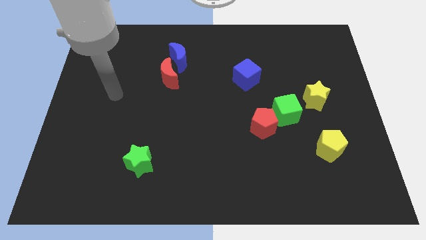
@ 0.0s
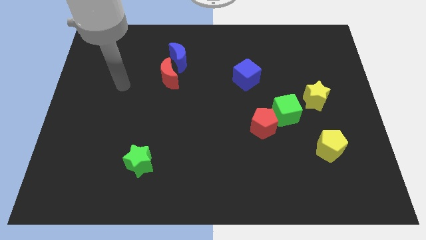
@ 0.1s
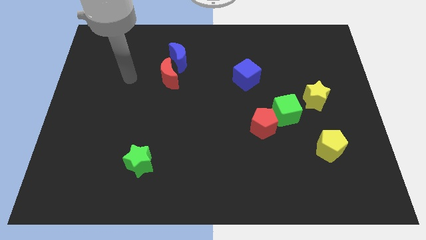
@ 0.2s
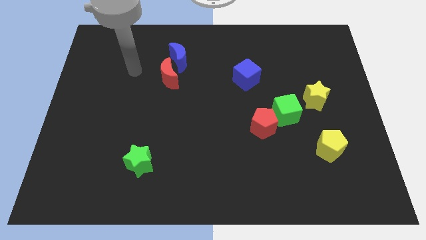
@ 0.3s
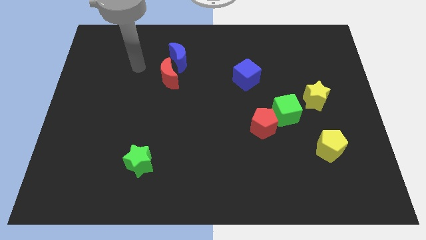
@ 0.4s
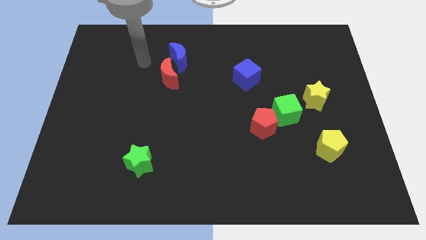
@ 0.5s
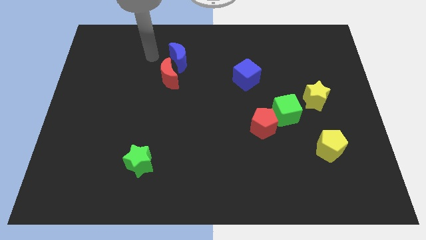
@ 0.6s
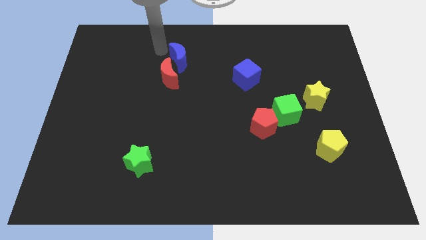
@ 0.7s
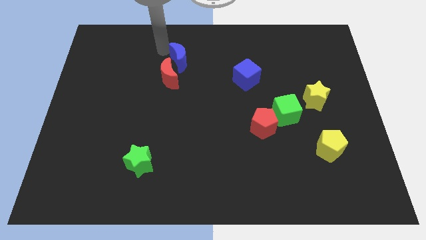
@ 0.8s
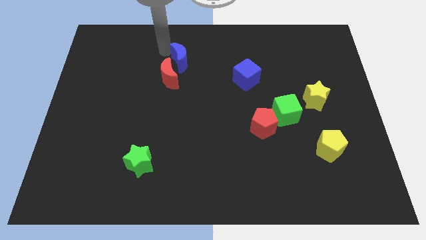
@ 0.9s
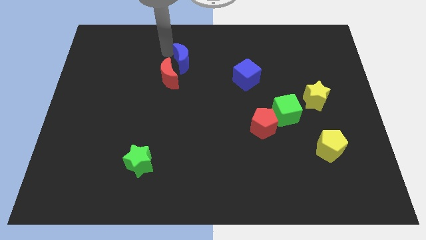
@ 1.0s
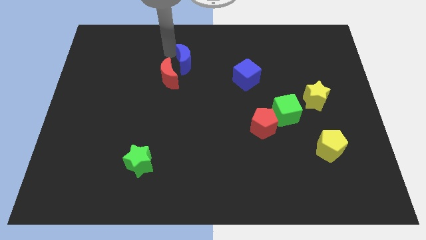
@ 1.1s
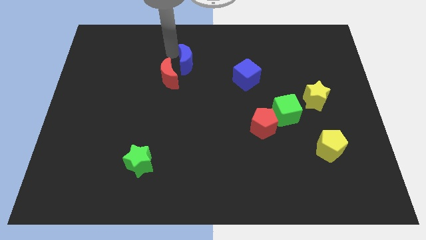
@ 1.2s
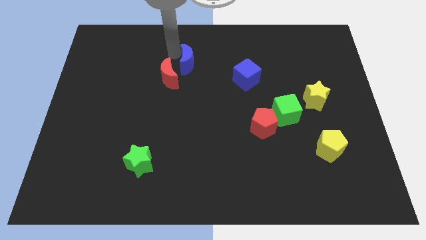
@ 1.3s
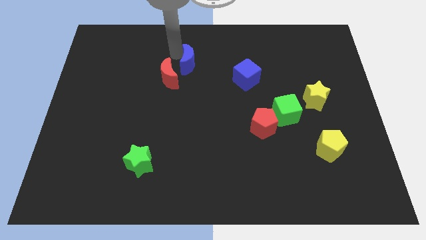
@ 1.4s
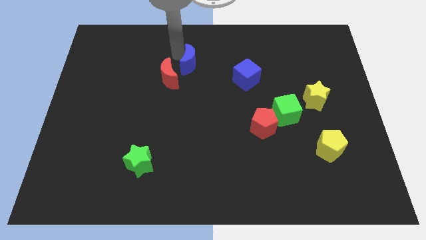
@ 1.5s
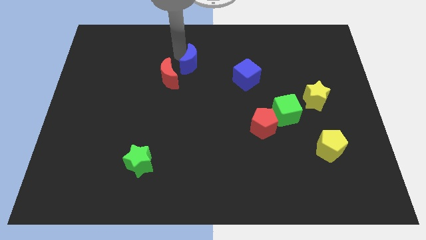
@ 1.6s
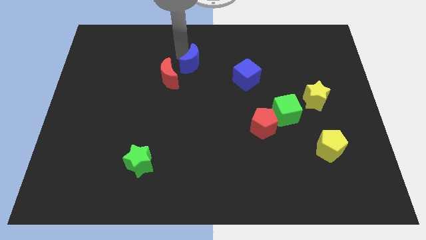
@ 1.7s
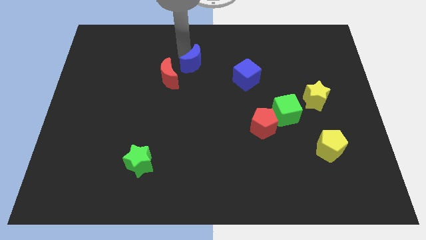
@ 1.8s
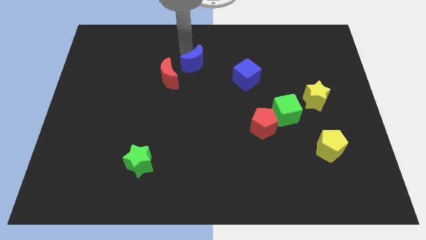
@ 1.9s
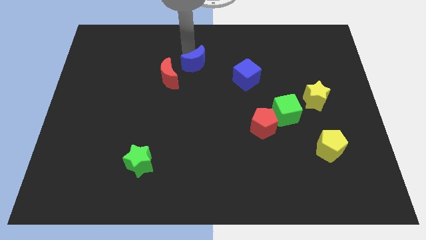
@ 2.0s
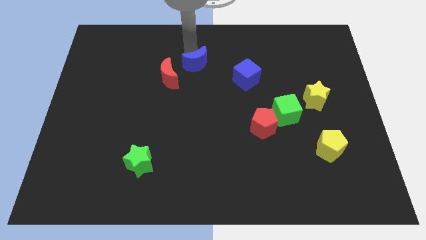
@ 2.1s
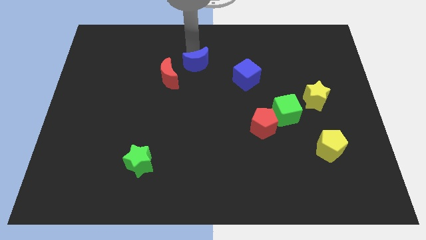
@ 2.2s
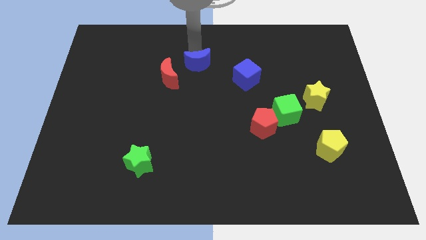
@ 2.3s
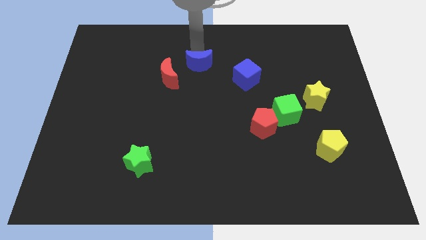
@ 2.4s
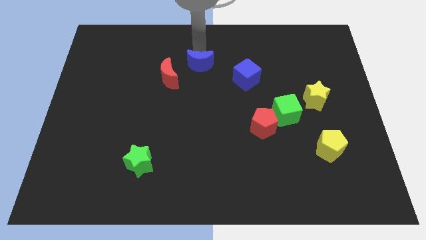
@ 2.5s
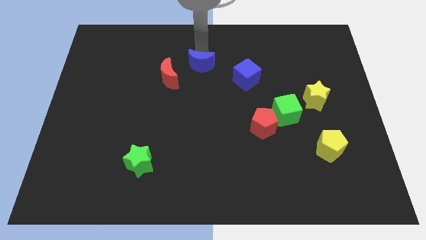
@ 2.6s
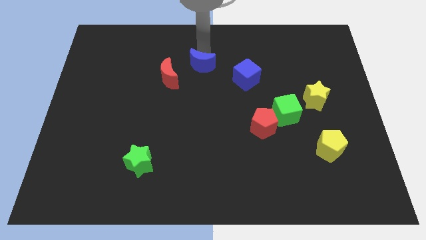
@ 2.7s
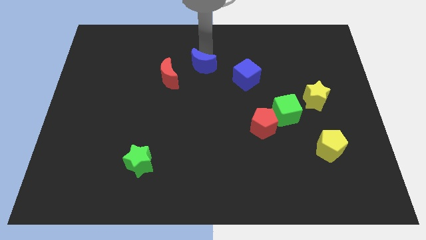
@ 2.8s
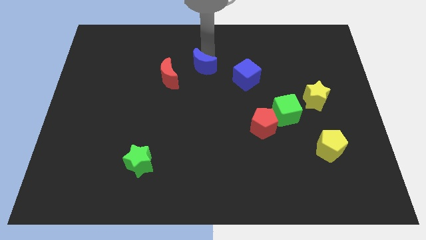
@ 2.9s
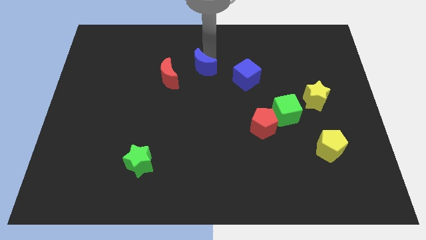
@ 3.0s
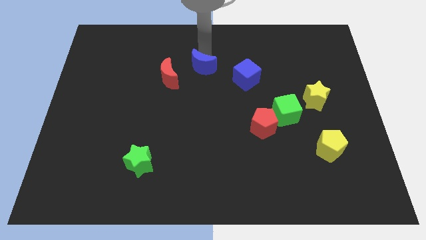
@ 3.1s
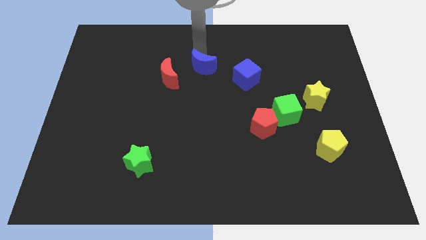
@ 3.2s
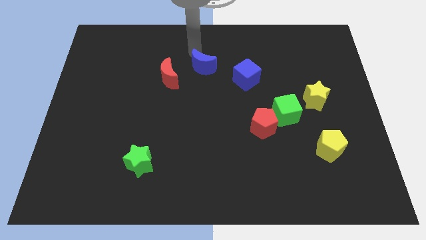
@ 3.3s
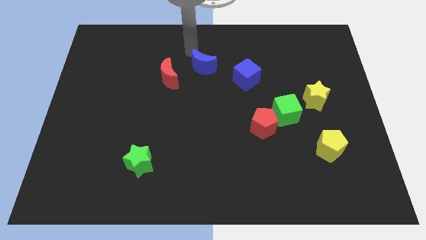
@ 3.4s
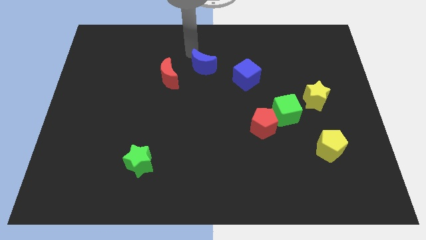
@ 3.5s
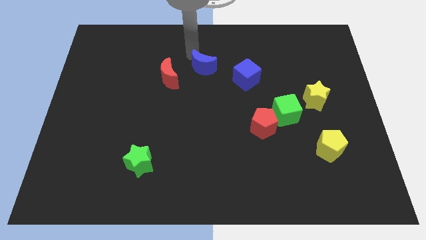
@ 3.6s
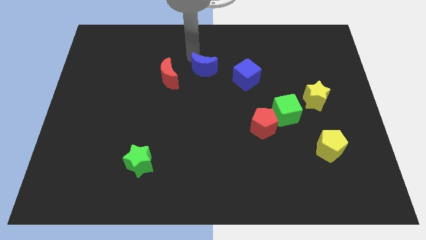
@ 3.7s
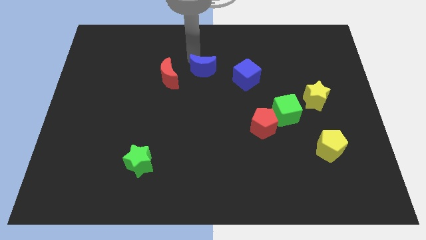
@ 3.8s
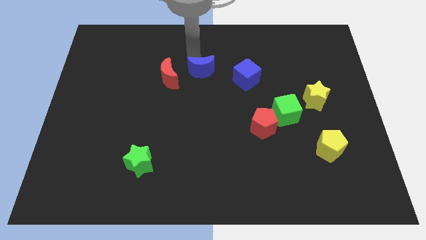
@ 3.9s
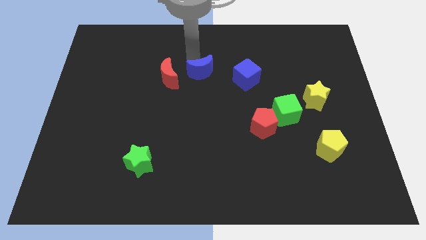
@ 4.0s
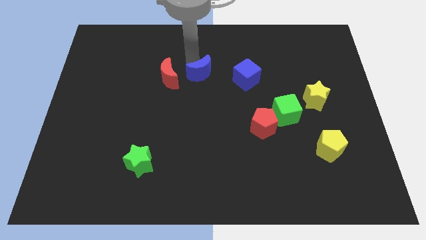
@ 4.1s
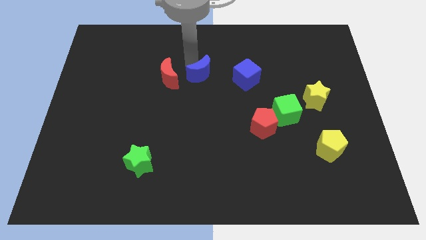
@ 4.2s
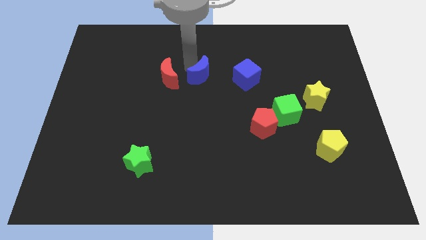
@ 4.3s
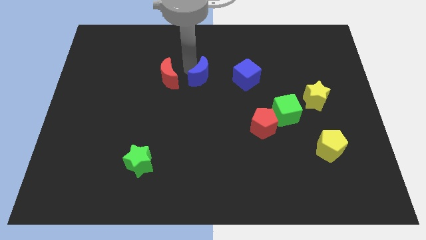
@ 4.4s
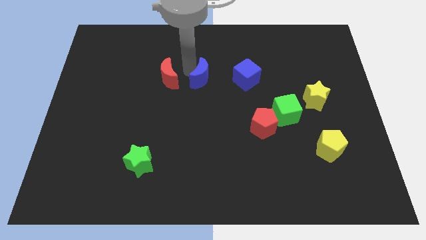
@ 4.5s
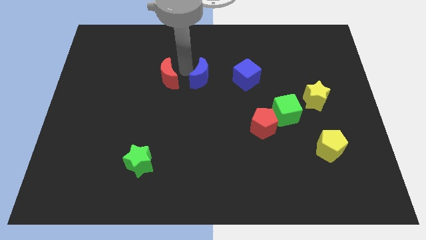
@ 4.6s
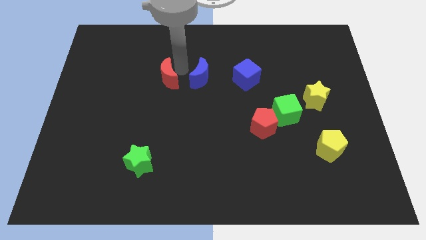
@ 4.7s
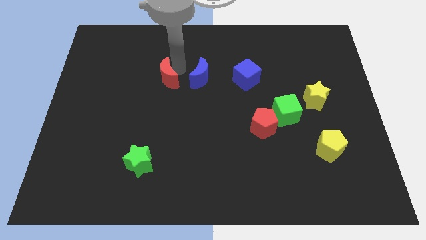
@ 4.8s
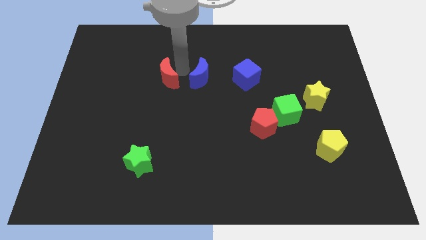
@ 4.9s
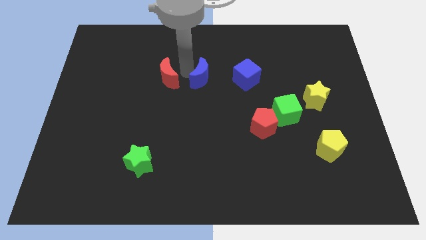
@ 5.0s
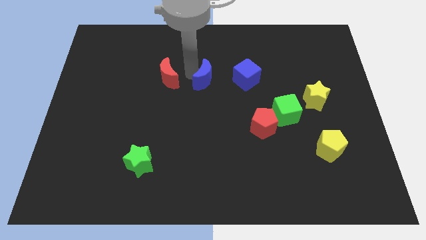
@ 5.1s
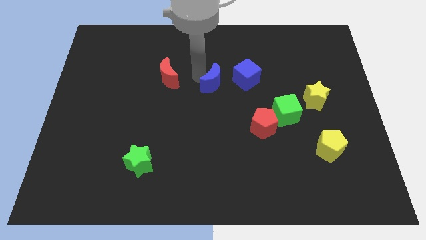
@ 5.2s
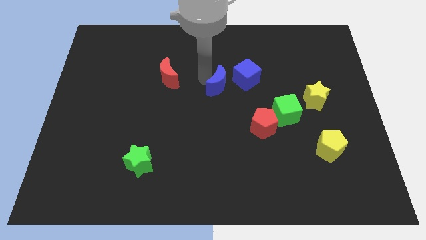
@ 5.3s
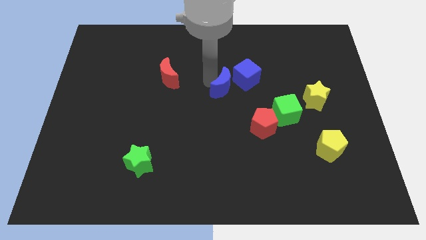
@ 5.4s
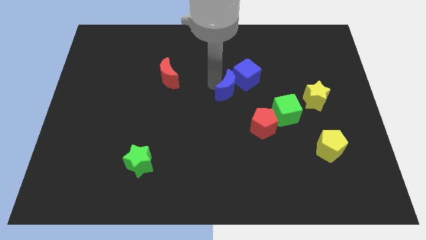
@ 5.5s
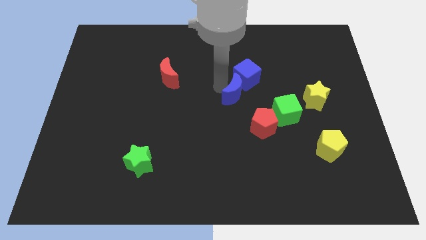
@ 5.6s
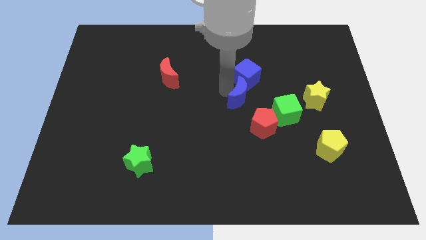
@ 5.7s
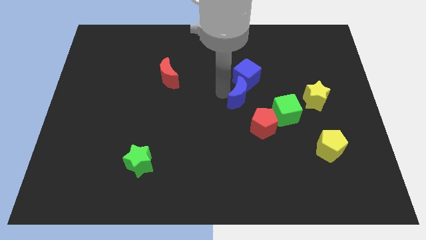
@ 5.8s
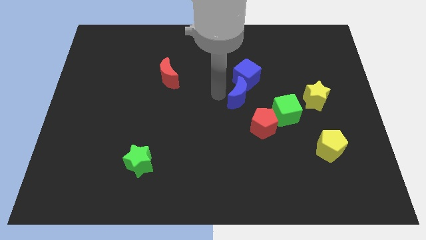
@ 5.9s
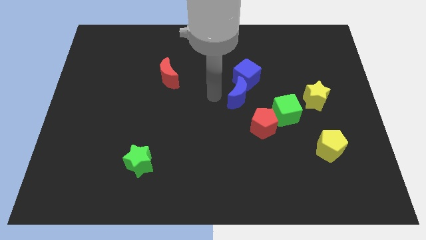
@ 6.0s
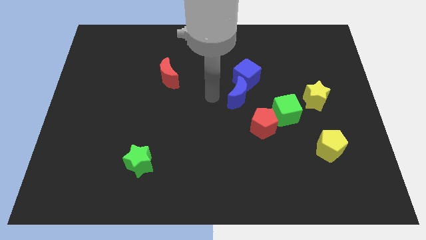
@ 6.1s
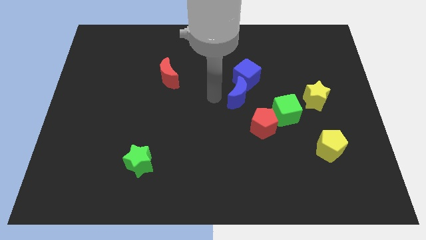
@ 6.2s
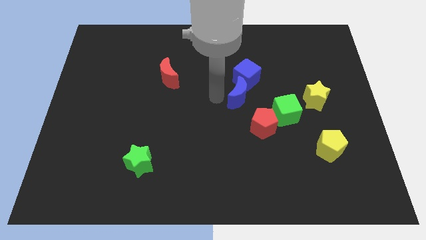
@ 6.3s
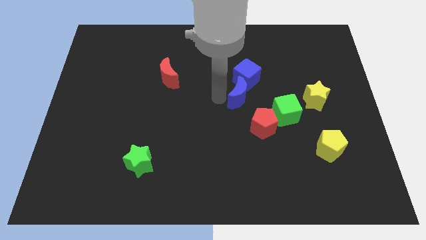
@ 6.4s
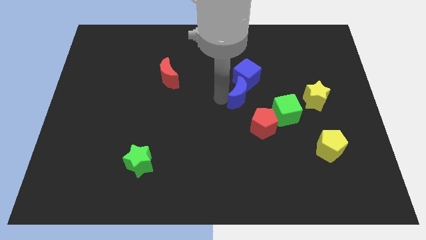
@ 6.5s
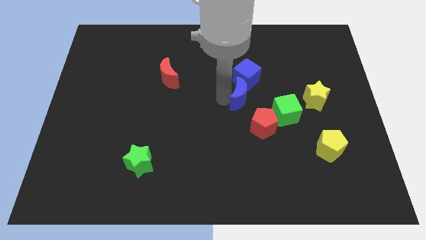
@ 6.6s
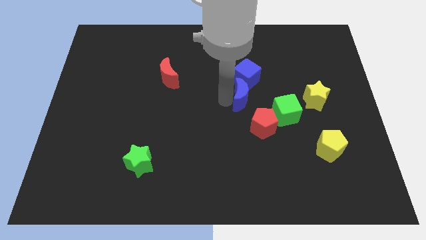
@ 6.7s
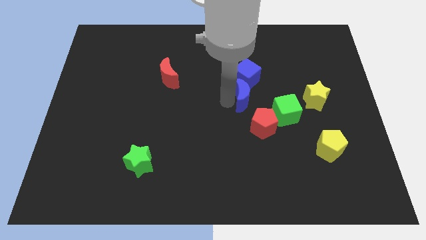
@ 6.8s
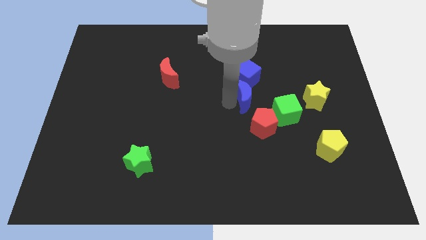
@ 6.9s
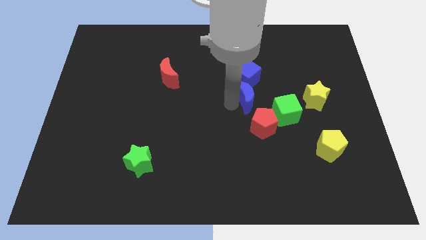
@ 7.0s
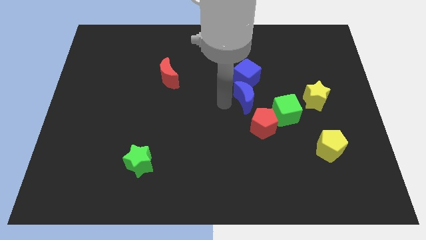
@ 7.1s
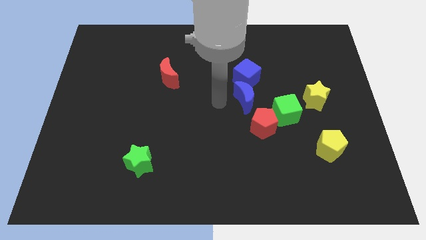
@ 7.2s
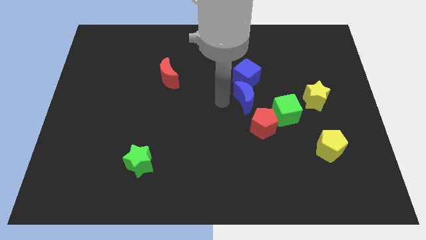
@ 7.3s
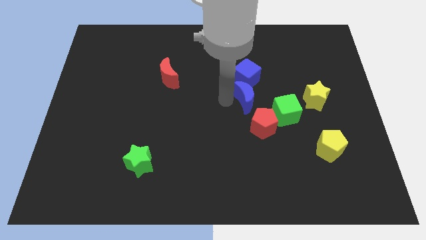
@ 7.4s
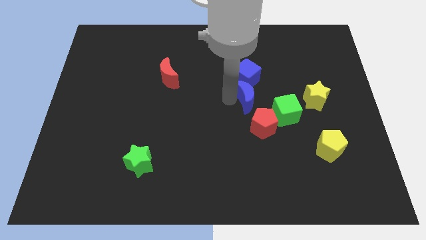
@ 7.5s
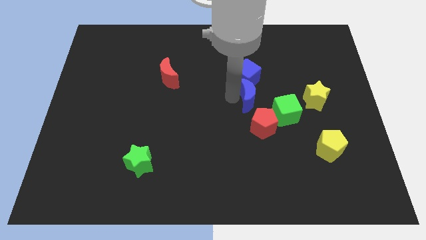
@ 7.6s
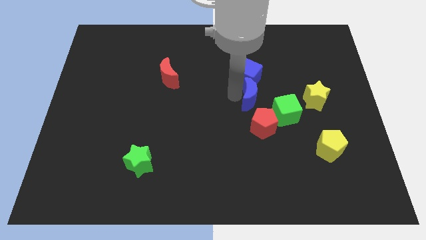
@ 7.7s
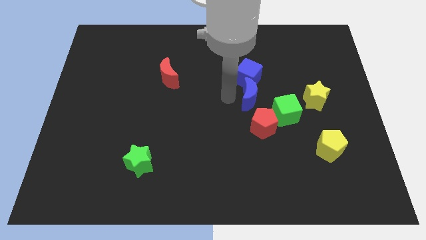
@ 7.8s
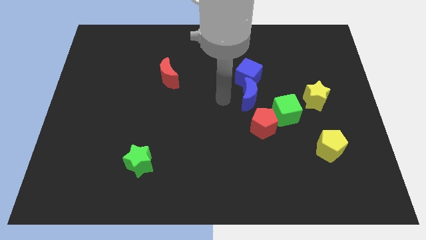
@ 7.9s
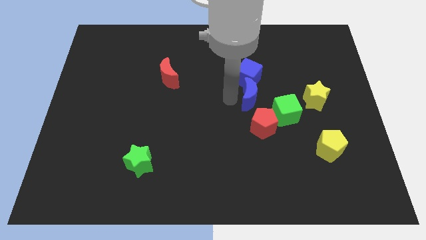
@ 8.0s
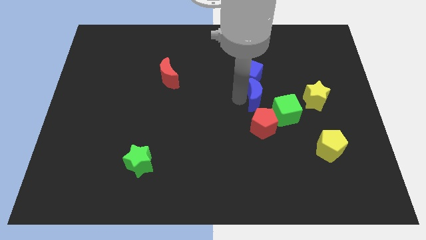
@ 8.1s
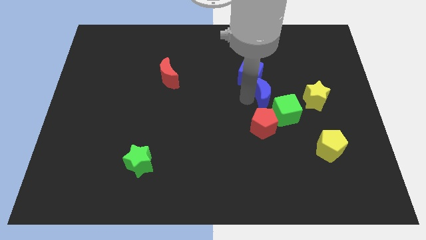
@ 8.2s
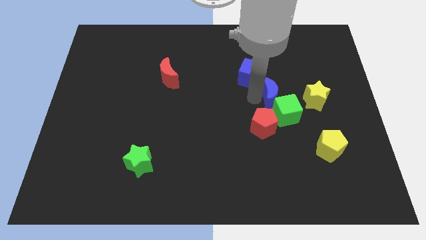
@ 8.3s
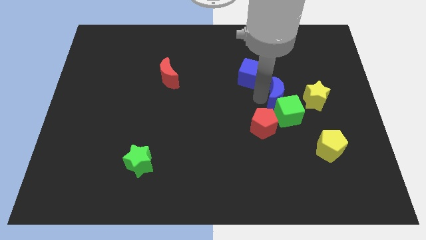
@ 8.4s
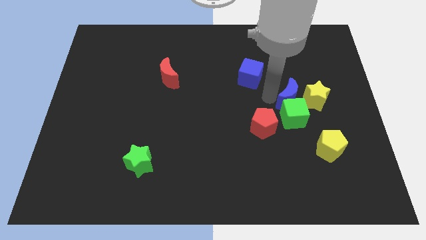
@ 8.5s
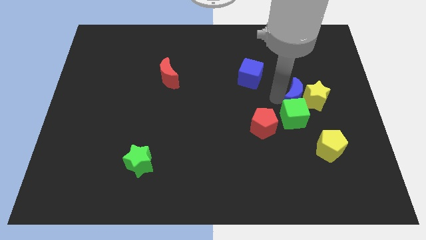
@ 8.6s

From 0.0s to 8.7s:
push the blue moon to the yellow star
